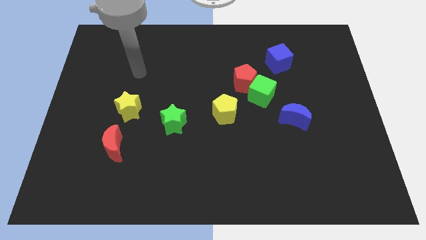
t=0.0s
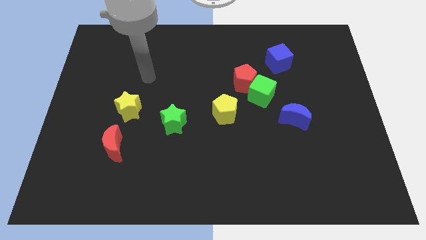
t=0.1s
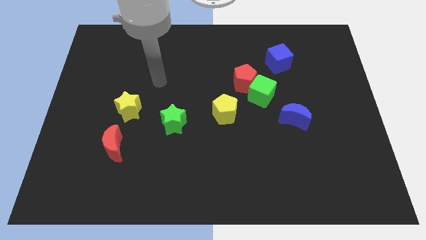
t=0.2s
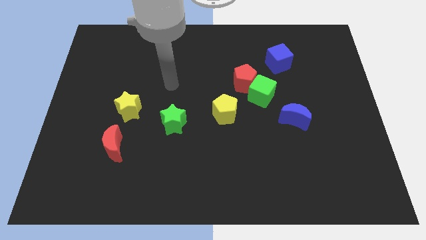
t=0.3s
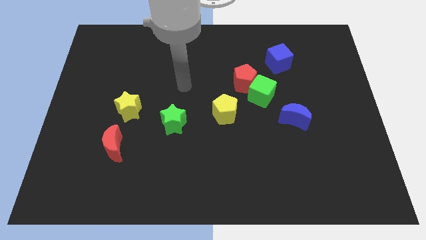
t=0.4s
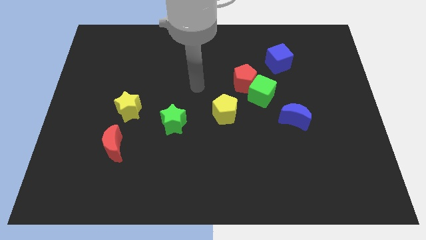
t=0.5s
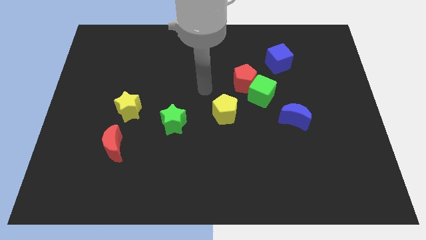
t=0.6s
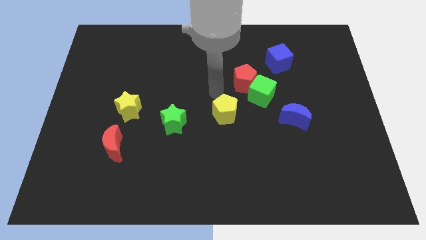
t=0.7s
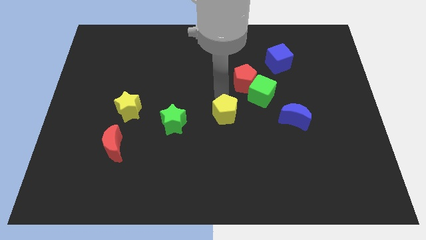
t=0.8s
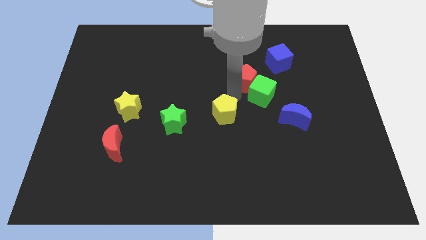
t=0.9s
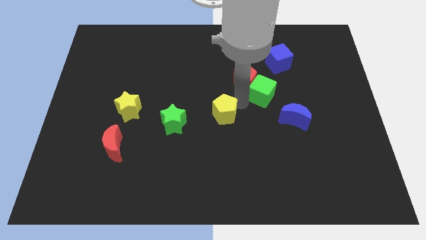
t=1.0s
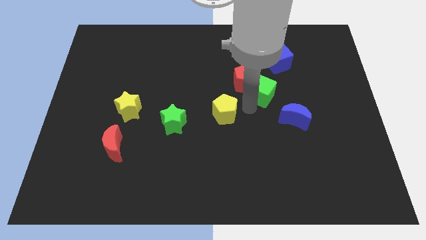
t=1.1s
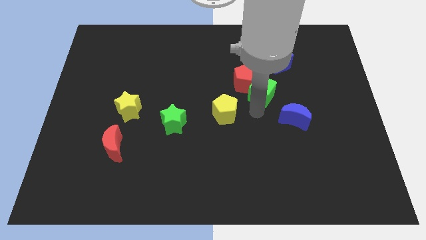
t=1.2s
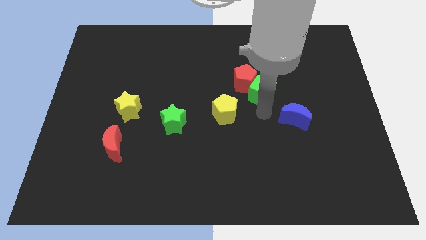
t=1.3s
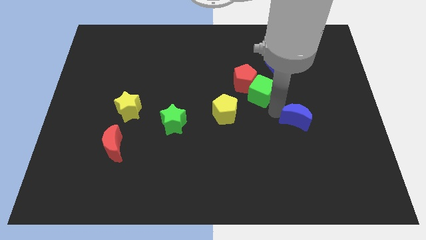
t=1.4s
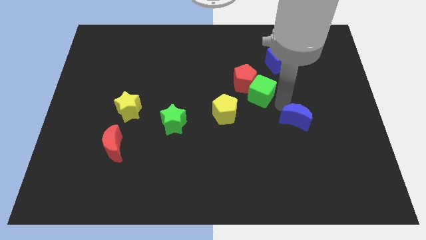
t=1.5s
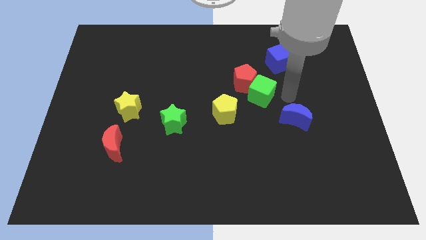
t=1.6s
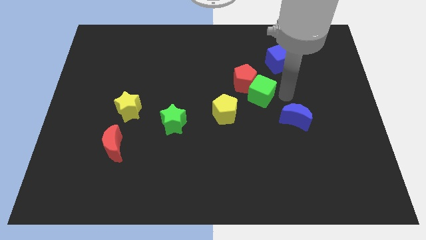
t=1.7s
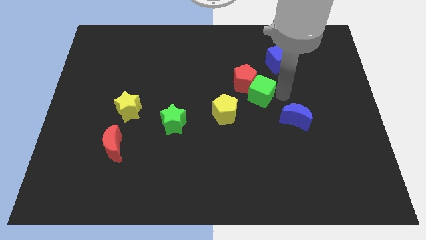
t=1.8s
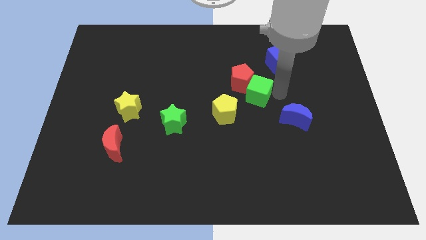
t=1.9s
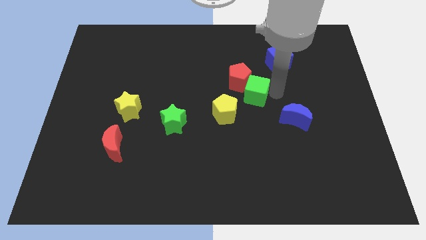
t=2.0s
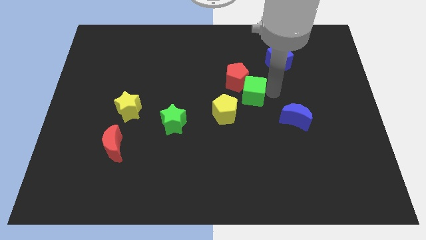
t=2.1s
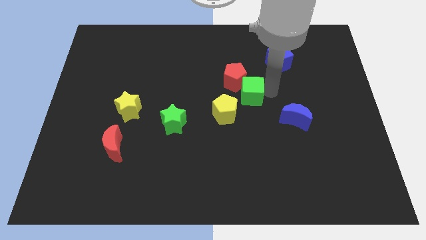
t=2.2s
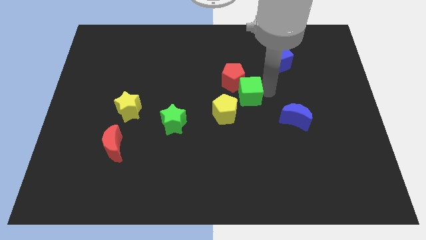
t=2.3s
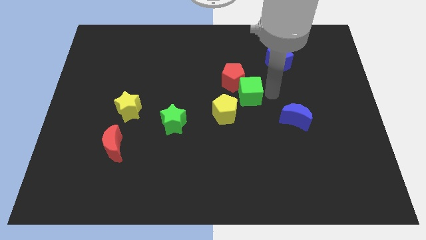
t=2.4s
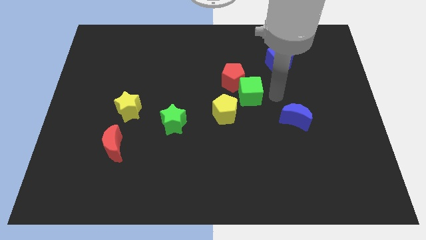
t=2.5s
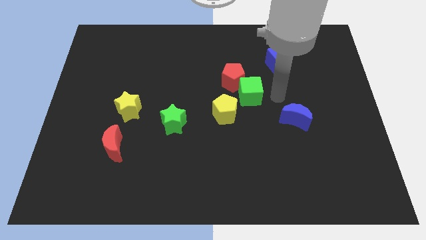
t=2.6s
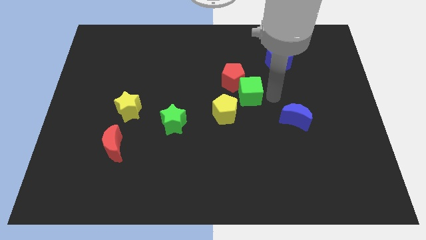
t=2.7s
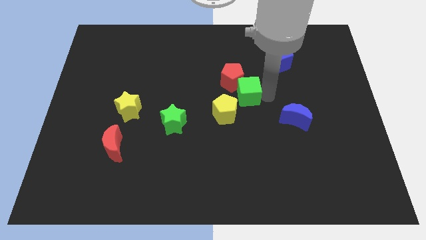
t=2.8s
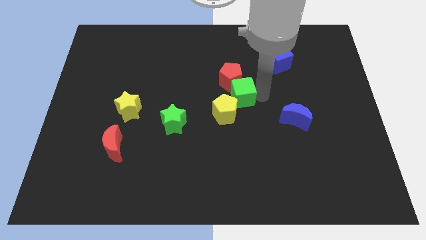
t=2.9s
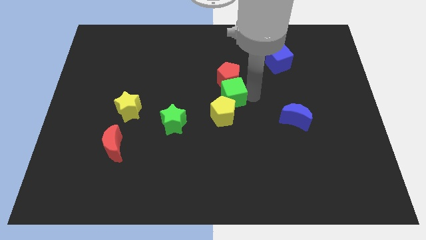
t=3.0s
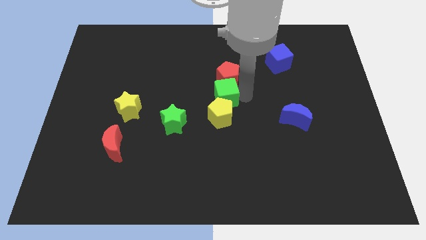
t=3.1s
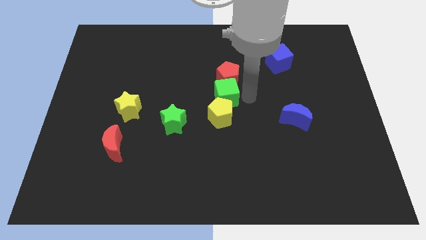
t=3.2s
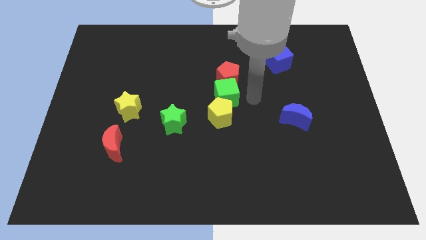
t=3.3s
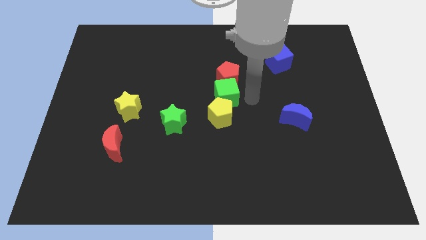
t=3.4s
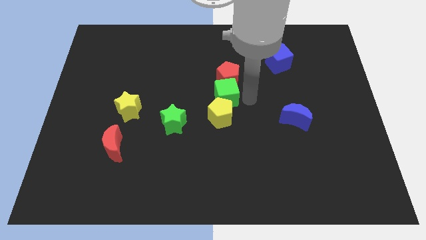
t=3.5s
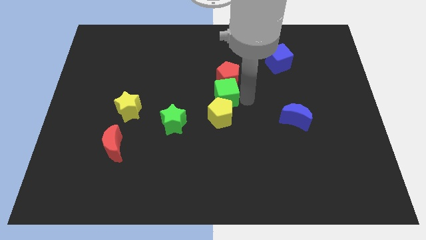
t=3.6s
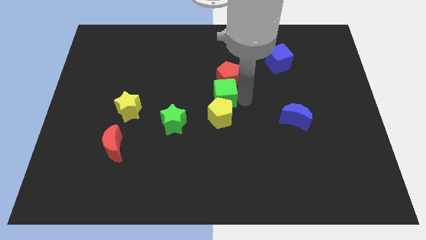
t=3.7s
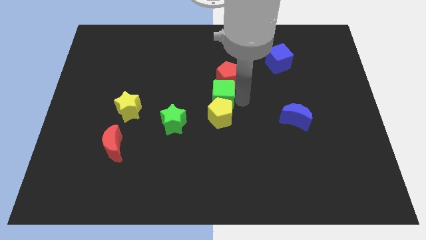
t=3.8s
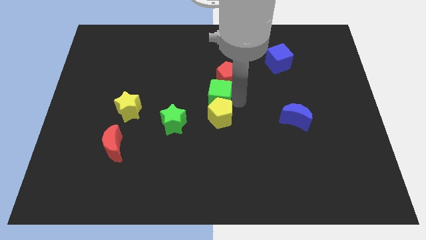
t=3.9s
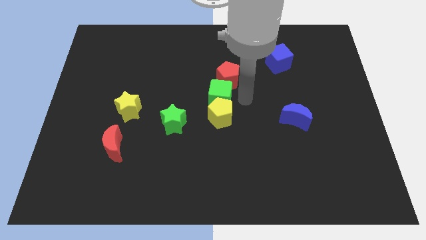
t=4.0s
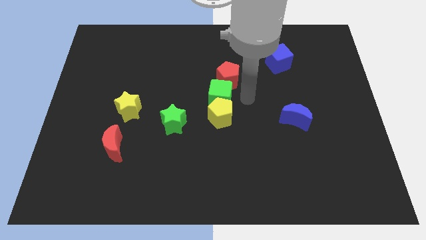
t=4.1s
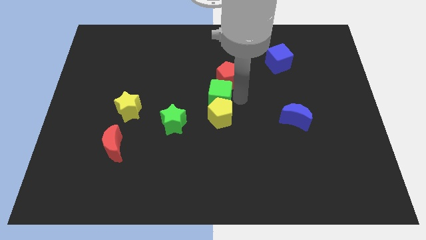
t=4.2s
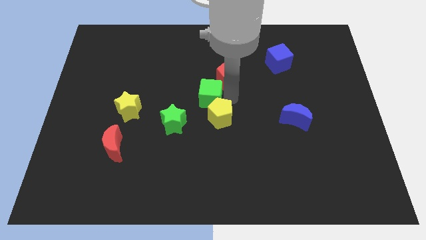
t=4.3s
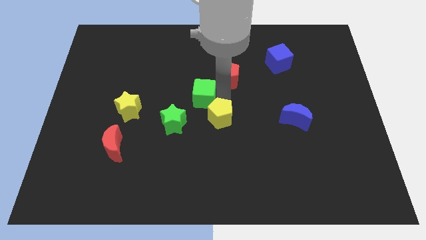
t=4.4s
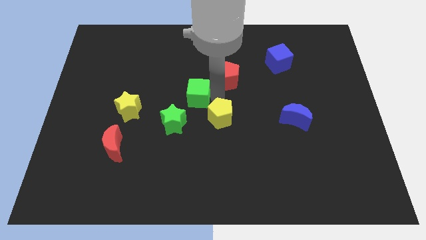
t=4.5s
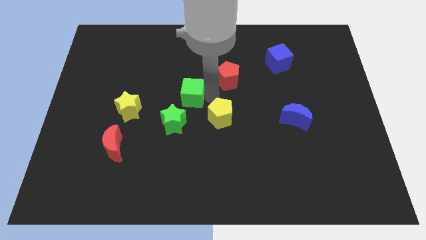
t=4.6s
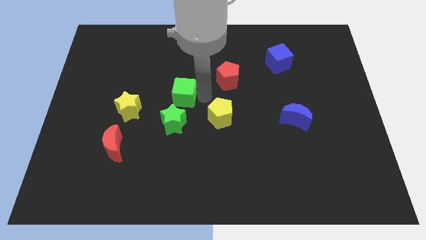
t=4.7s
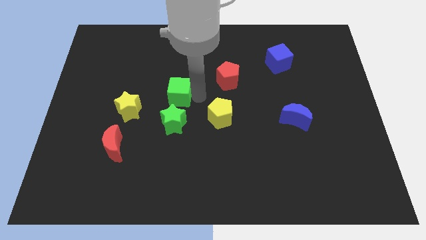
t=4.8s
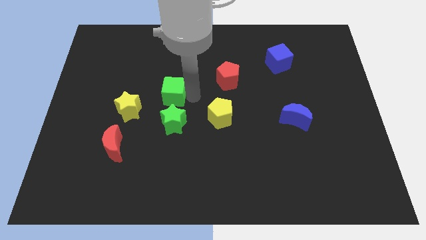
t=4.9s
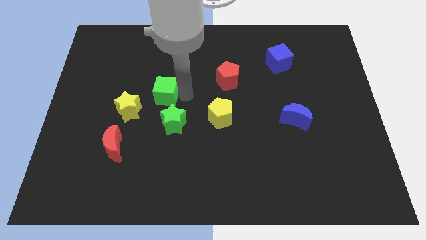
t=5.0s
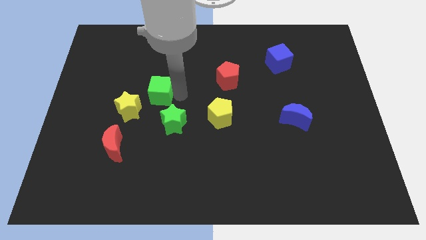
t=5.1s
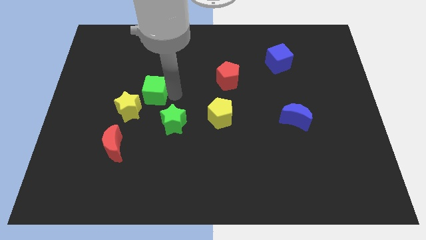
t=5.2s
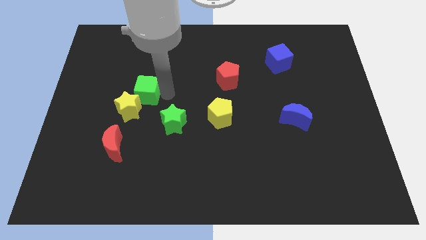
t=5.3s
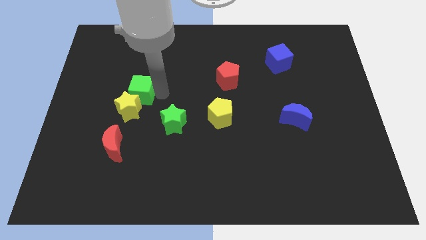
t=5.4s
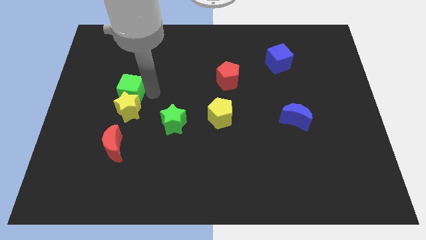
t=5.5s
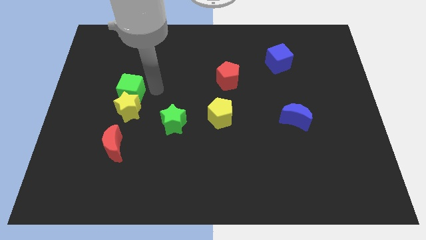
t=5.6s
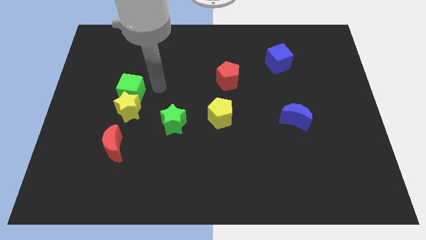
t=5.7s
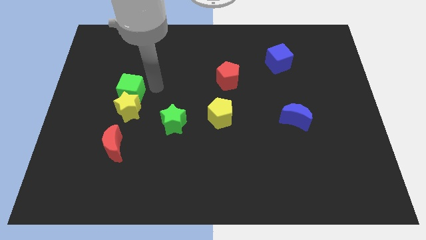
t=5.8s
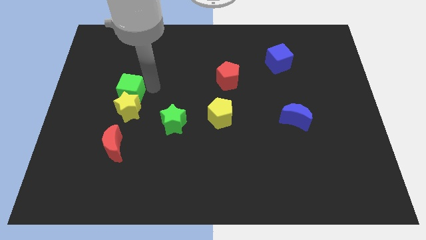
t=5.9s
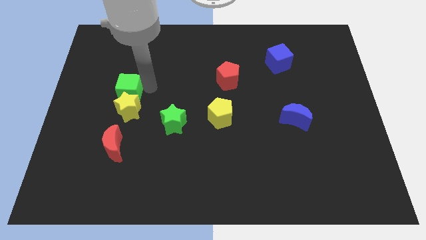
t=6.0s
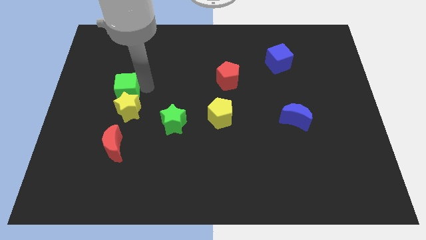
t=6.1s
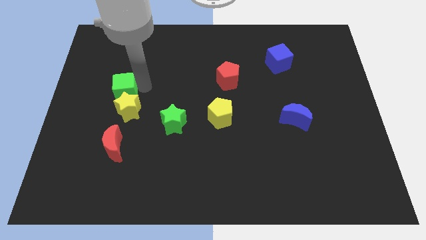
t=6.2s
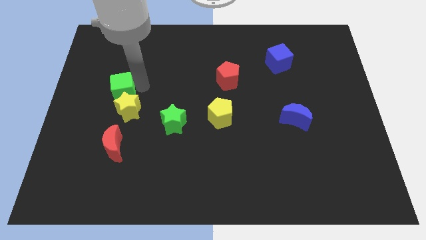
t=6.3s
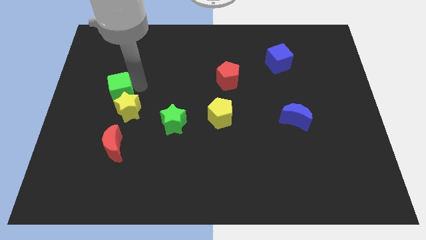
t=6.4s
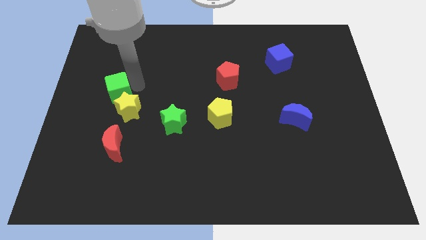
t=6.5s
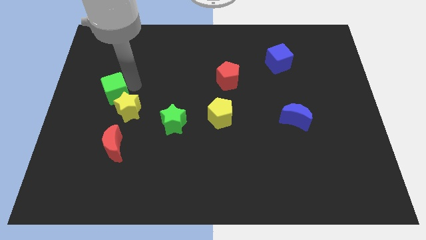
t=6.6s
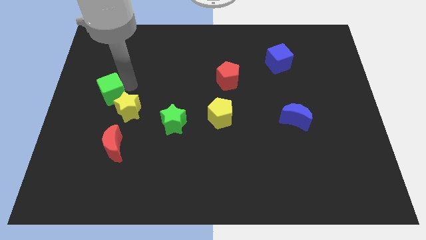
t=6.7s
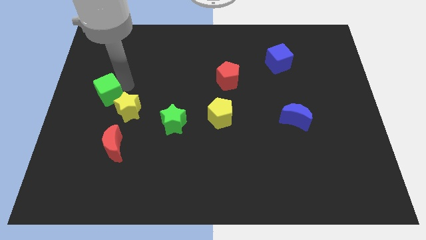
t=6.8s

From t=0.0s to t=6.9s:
put the green cube to the left side
